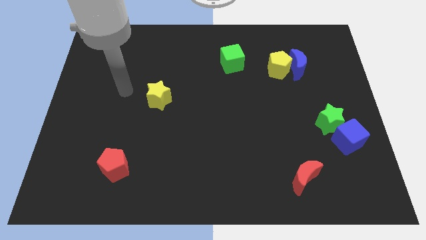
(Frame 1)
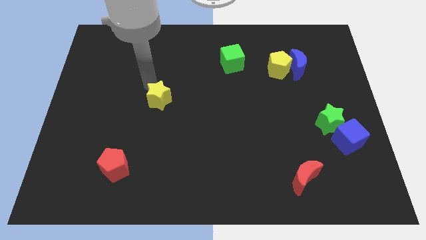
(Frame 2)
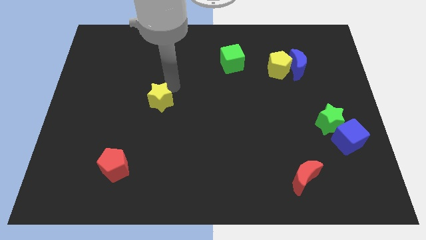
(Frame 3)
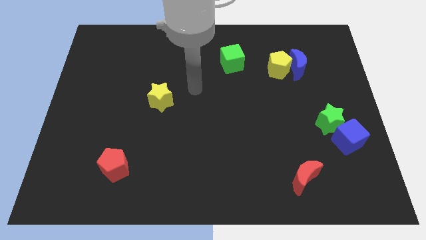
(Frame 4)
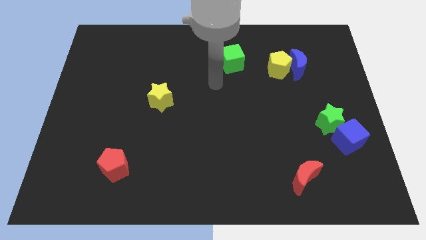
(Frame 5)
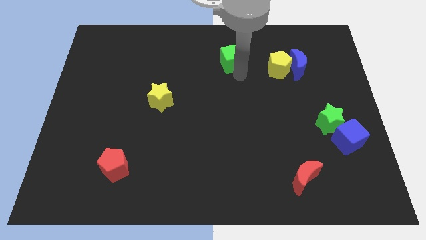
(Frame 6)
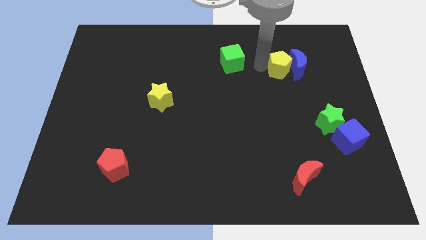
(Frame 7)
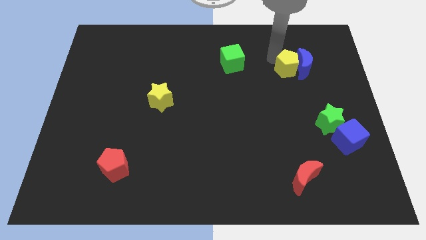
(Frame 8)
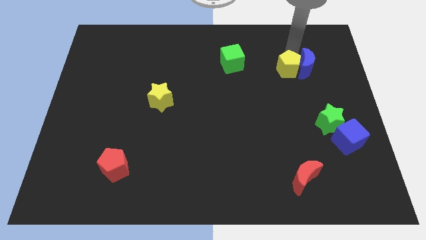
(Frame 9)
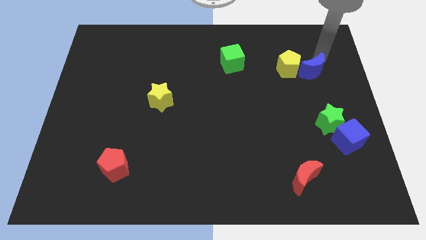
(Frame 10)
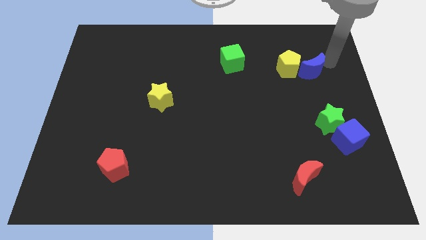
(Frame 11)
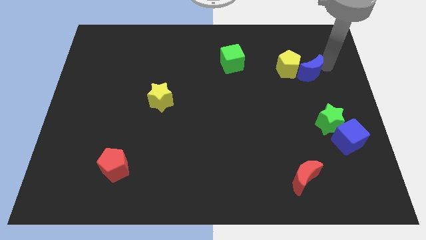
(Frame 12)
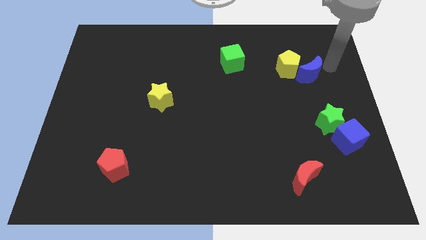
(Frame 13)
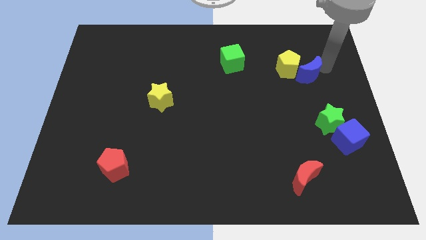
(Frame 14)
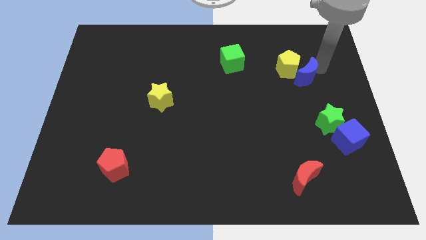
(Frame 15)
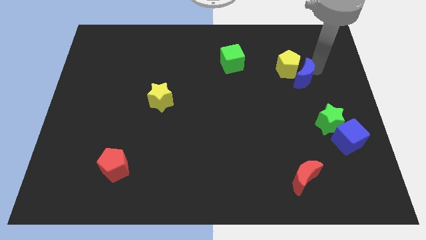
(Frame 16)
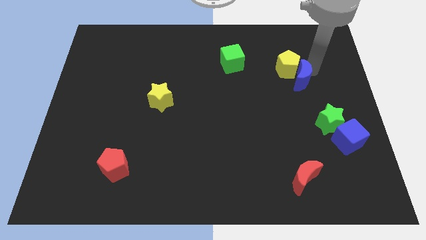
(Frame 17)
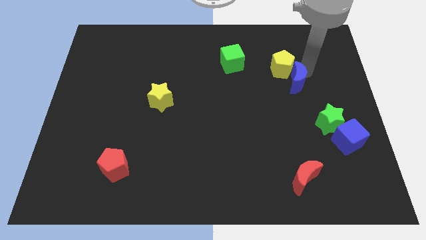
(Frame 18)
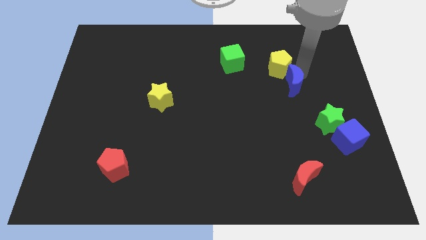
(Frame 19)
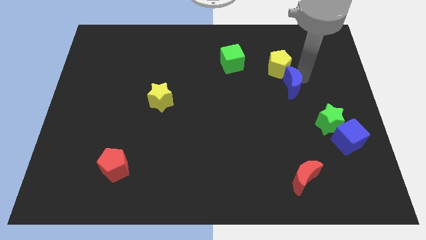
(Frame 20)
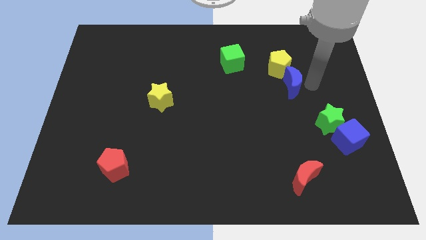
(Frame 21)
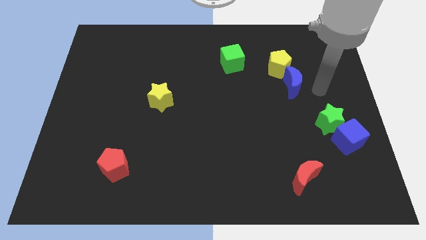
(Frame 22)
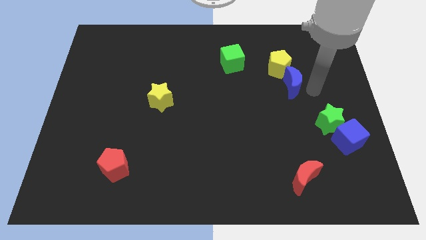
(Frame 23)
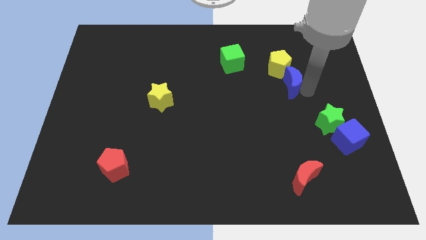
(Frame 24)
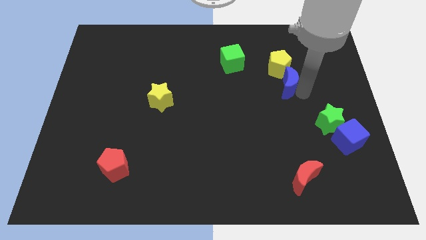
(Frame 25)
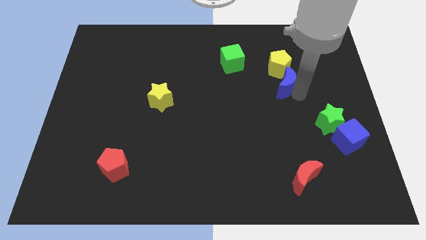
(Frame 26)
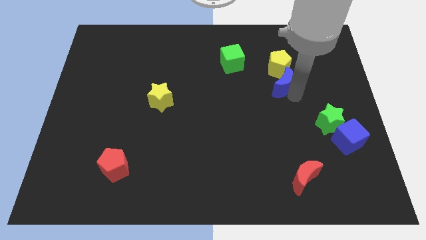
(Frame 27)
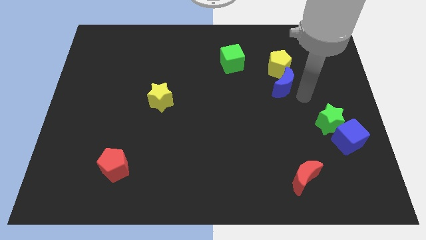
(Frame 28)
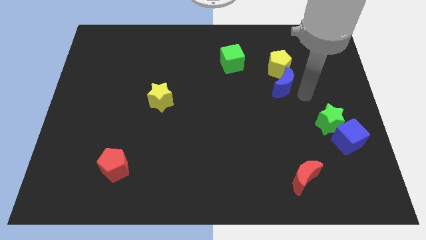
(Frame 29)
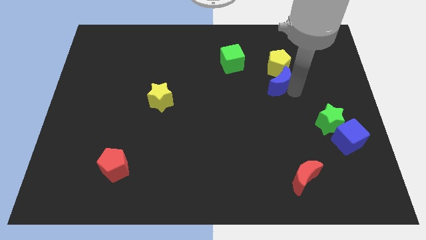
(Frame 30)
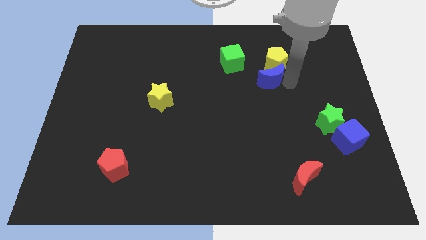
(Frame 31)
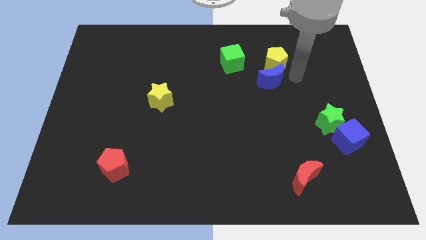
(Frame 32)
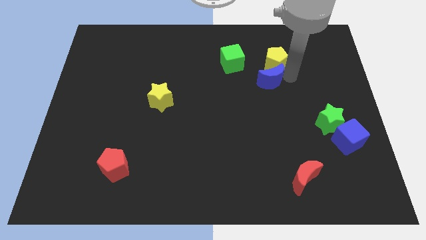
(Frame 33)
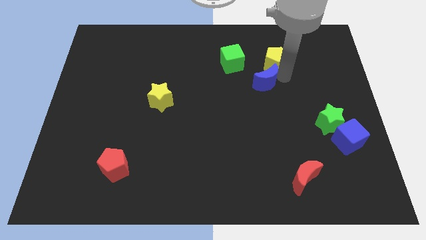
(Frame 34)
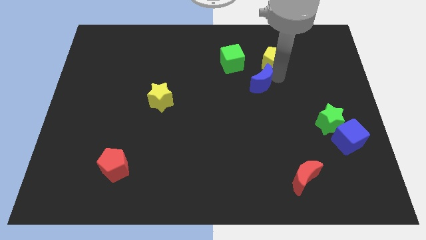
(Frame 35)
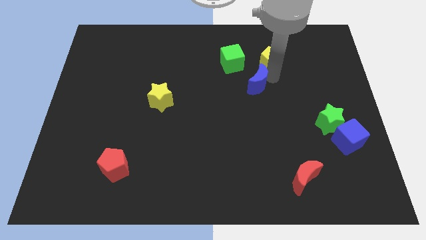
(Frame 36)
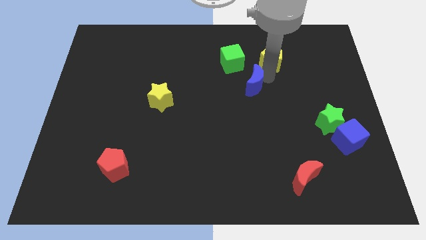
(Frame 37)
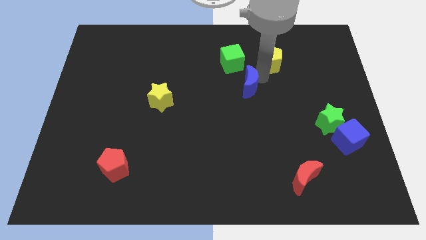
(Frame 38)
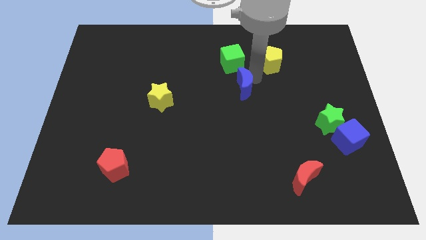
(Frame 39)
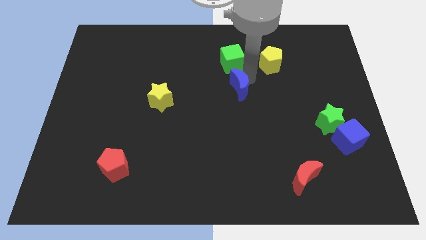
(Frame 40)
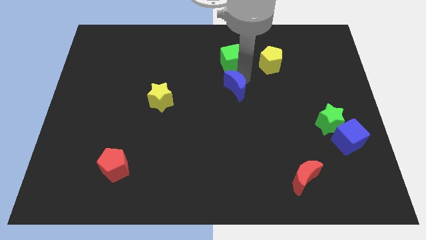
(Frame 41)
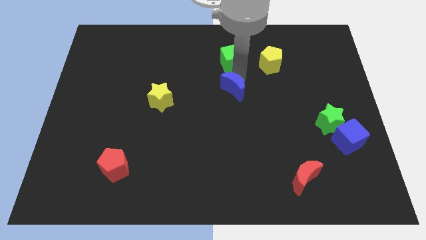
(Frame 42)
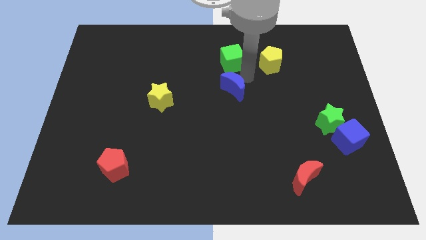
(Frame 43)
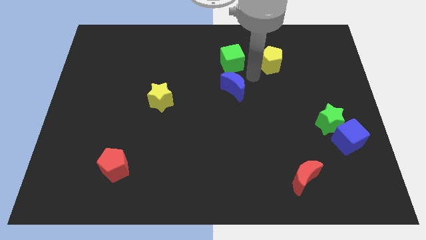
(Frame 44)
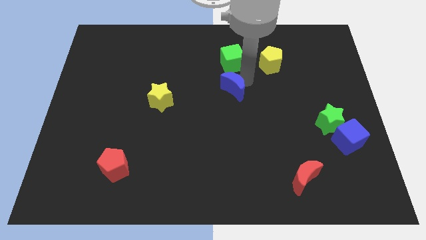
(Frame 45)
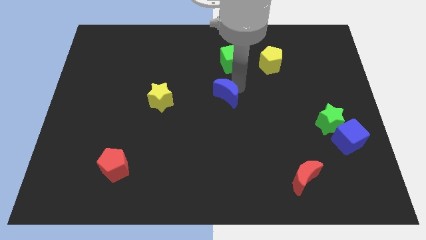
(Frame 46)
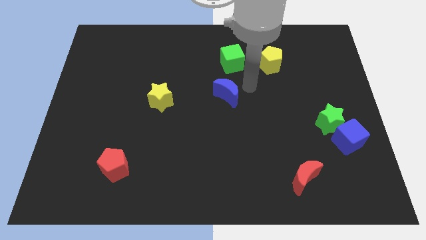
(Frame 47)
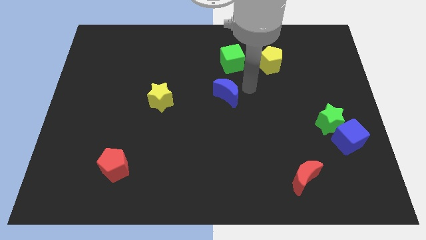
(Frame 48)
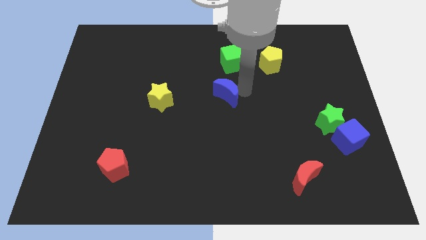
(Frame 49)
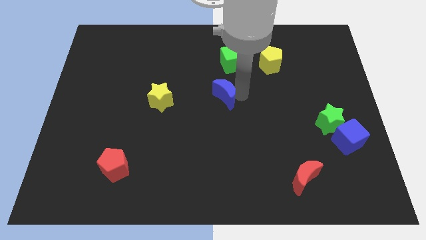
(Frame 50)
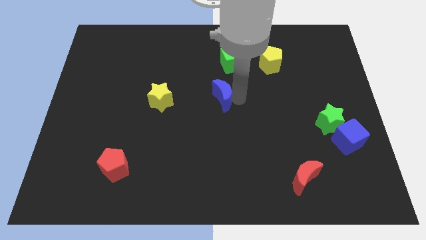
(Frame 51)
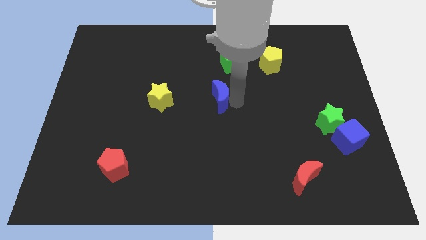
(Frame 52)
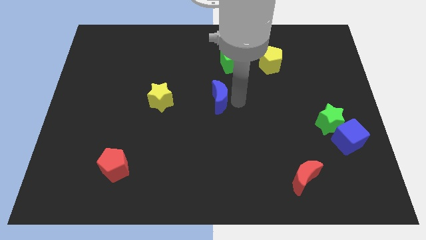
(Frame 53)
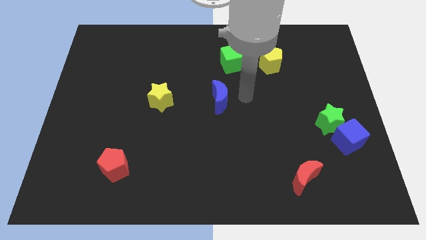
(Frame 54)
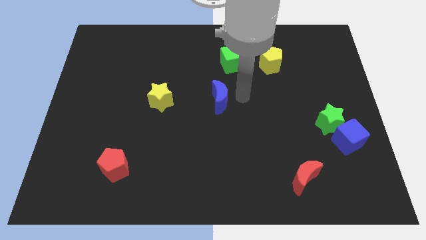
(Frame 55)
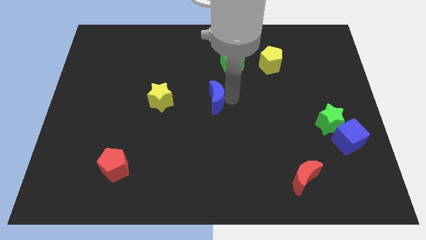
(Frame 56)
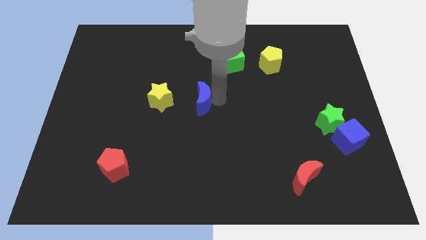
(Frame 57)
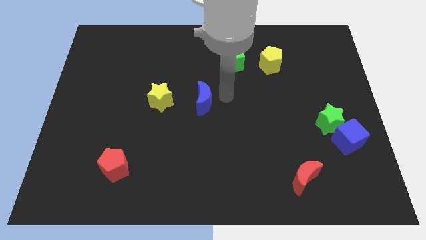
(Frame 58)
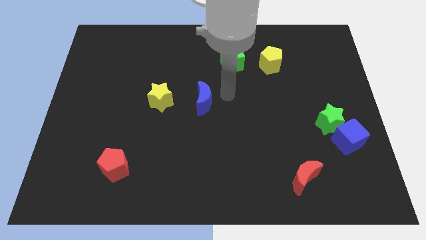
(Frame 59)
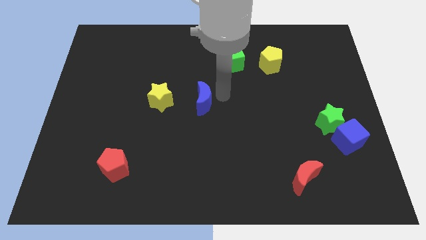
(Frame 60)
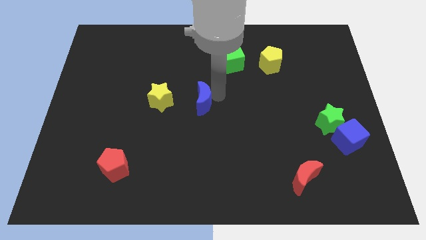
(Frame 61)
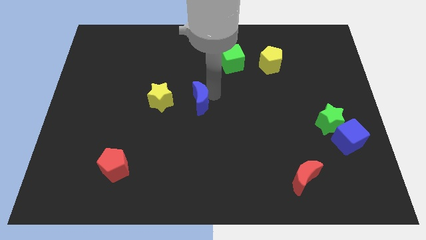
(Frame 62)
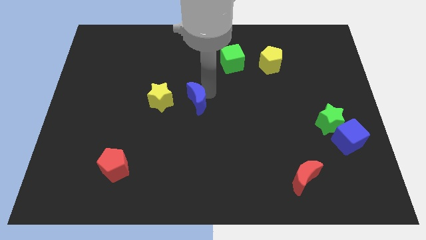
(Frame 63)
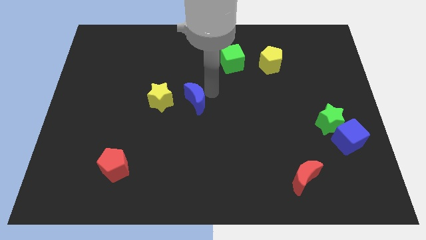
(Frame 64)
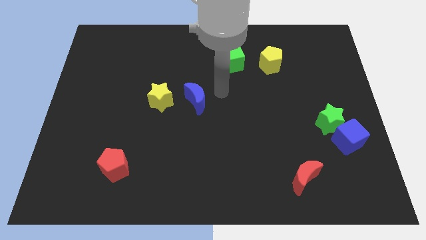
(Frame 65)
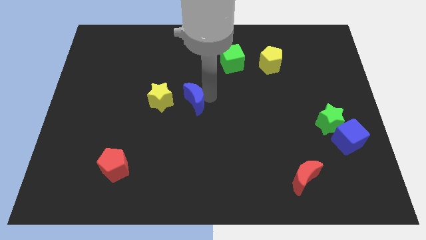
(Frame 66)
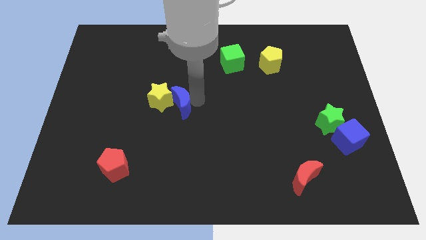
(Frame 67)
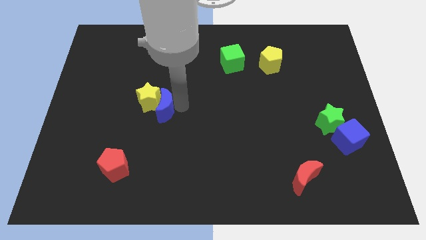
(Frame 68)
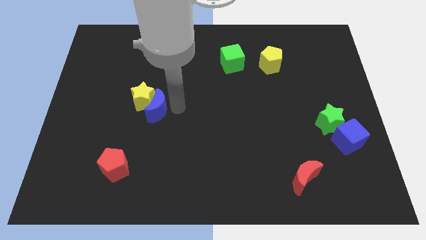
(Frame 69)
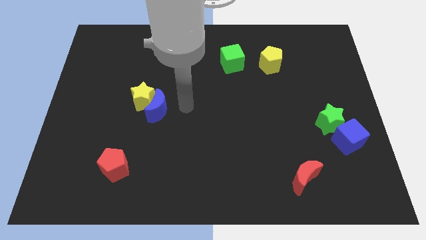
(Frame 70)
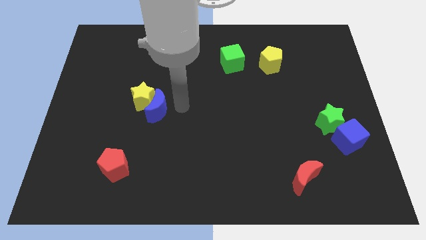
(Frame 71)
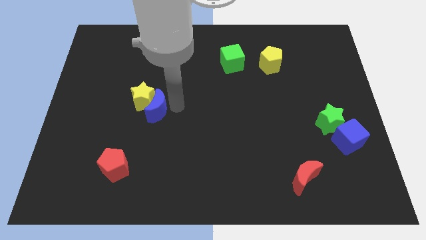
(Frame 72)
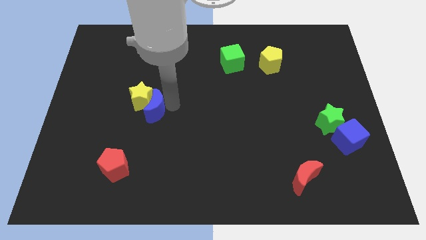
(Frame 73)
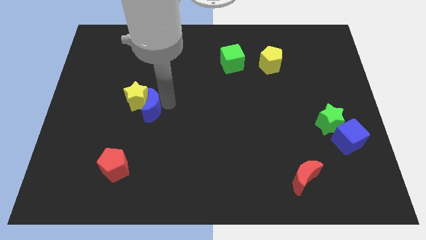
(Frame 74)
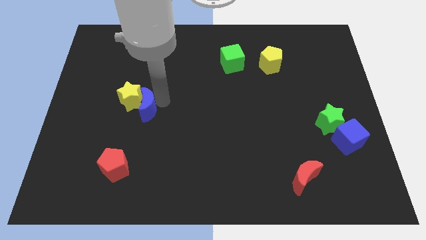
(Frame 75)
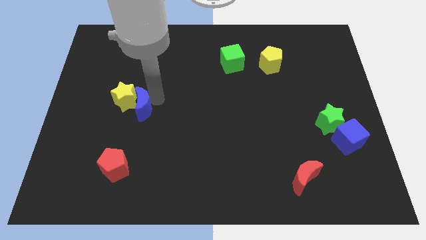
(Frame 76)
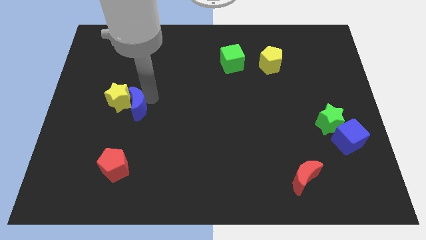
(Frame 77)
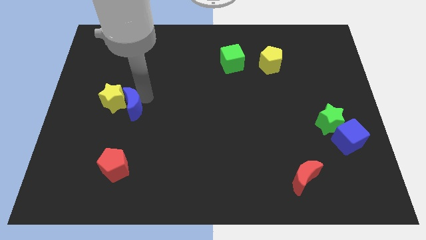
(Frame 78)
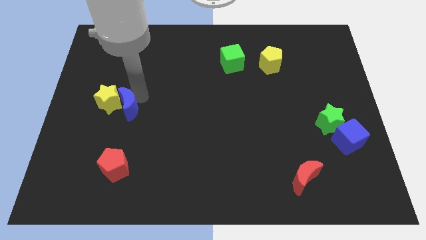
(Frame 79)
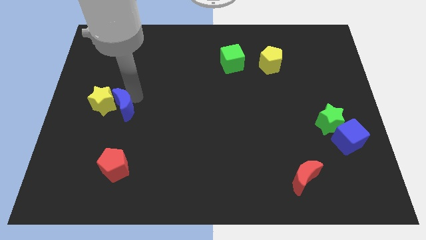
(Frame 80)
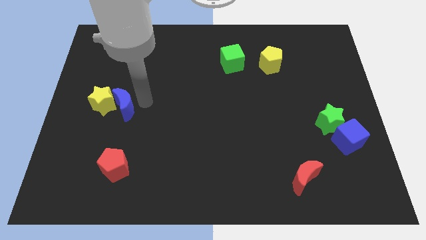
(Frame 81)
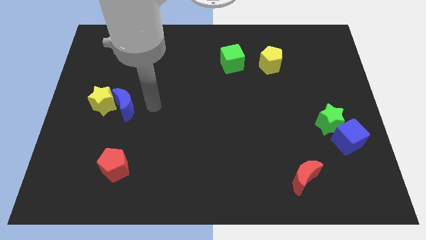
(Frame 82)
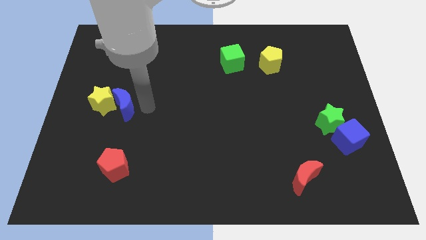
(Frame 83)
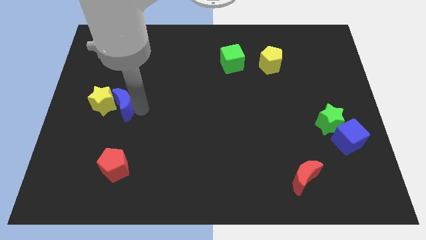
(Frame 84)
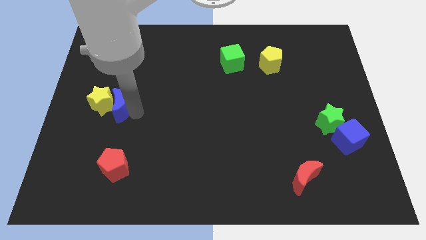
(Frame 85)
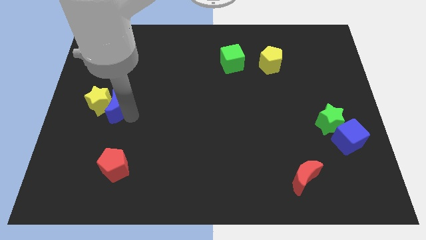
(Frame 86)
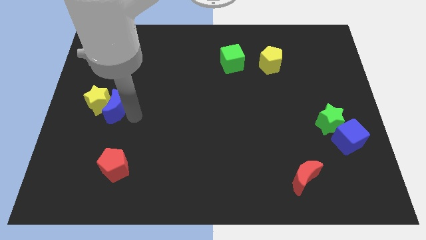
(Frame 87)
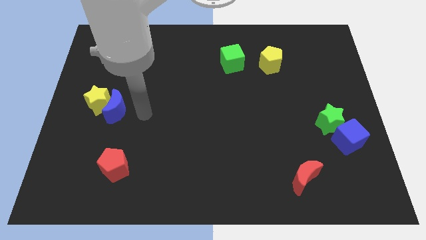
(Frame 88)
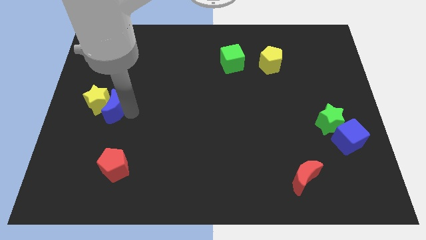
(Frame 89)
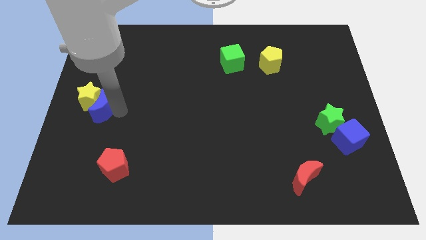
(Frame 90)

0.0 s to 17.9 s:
move the blue moon to the center left
